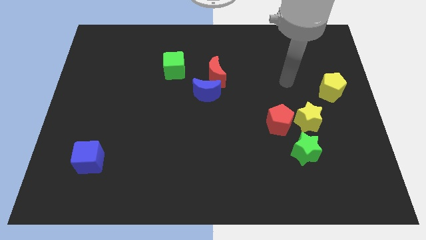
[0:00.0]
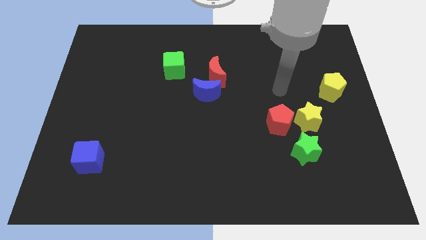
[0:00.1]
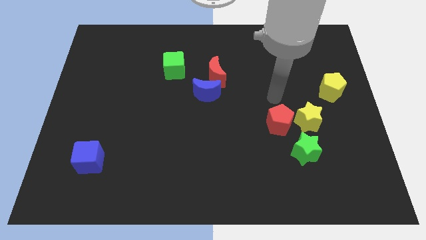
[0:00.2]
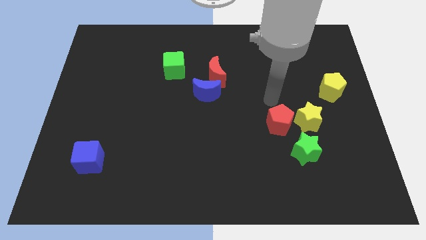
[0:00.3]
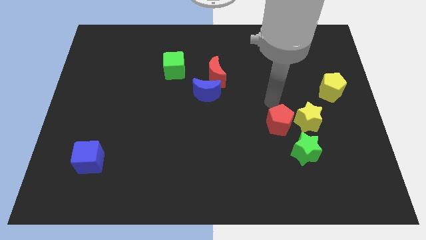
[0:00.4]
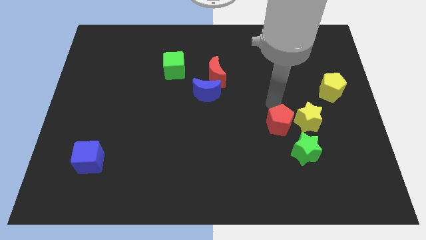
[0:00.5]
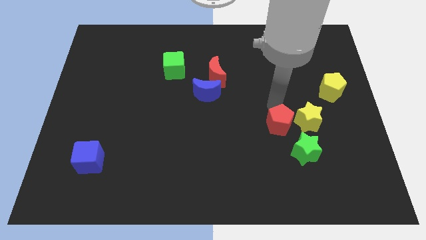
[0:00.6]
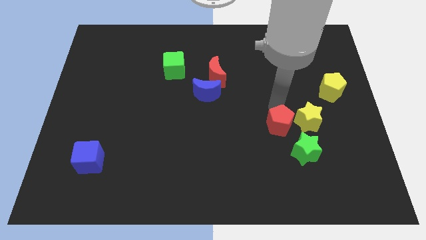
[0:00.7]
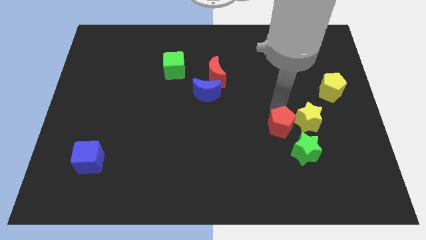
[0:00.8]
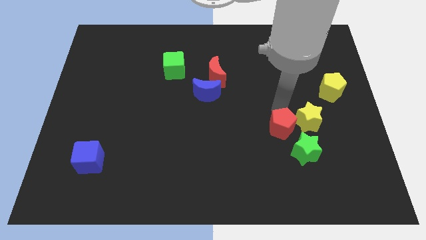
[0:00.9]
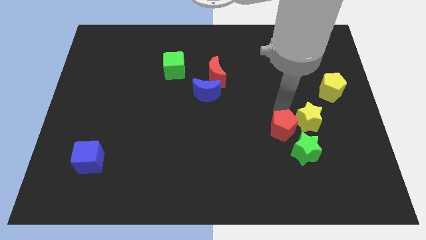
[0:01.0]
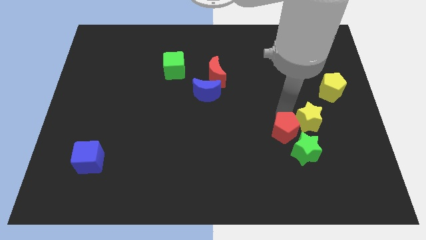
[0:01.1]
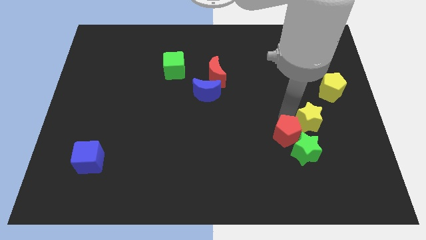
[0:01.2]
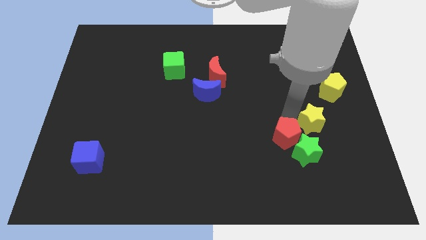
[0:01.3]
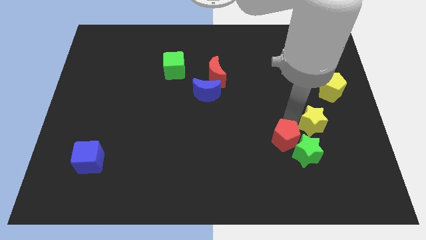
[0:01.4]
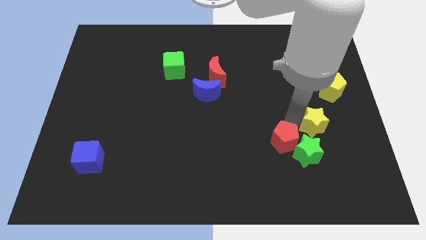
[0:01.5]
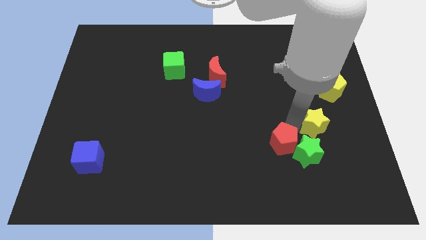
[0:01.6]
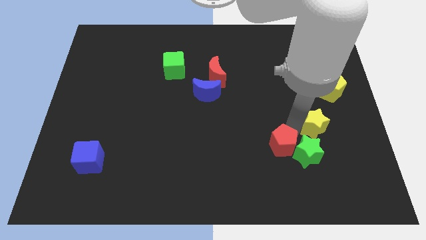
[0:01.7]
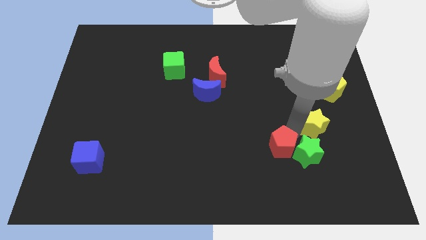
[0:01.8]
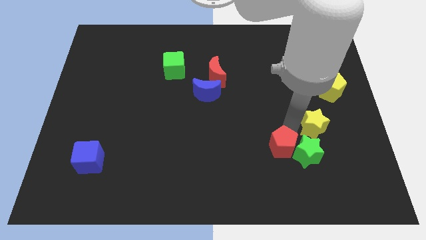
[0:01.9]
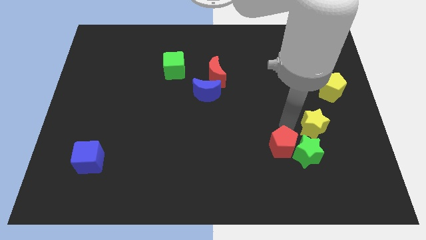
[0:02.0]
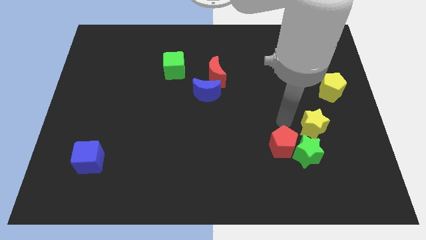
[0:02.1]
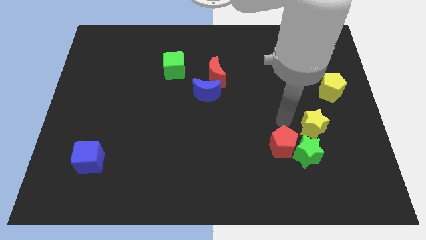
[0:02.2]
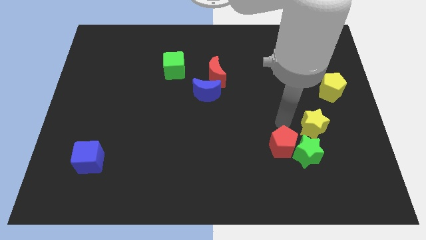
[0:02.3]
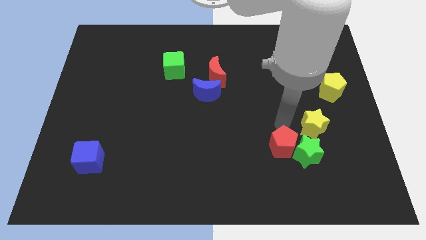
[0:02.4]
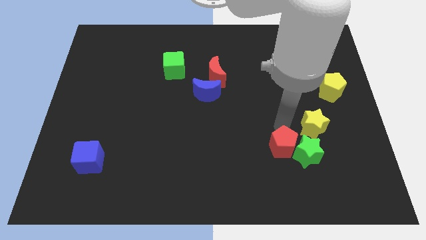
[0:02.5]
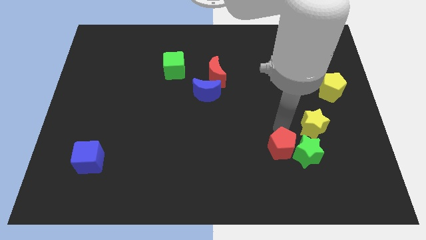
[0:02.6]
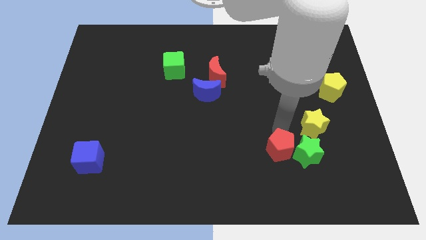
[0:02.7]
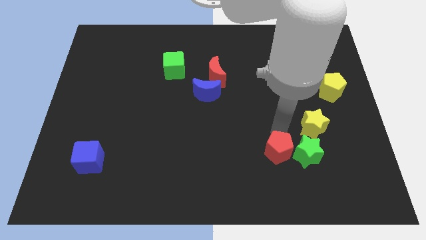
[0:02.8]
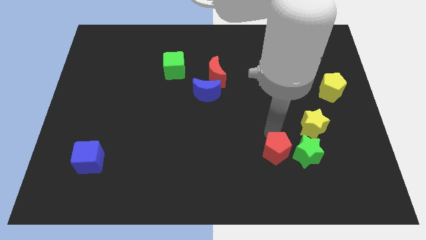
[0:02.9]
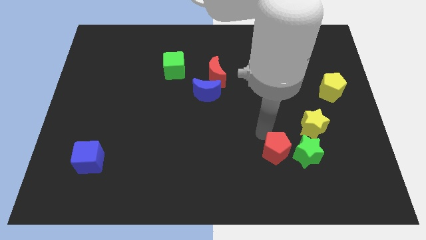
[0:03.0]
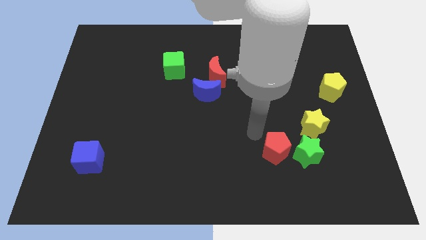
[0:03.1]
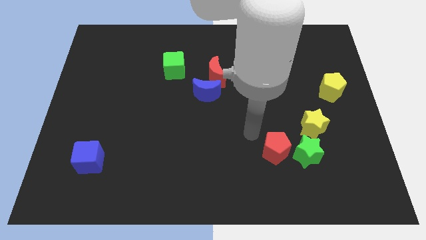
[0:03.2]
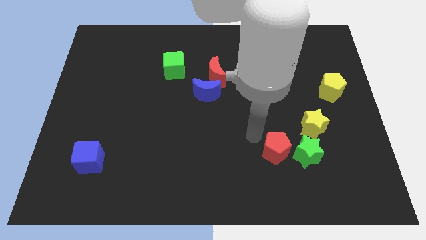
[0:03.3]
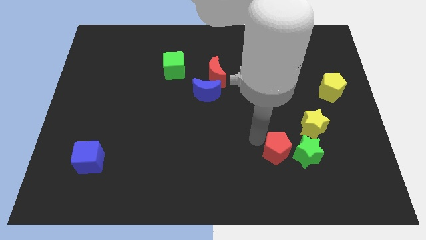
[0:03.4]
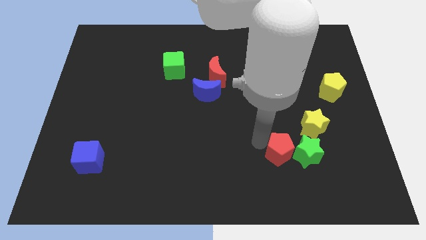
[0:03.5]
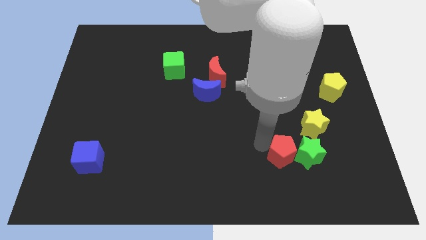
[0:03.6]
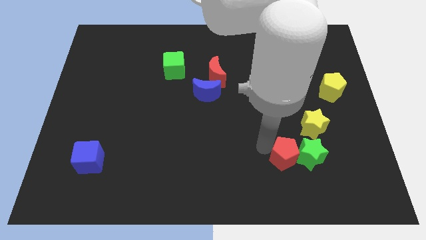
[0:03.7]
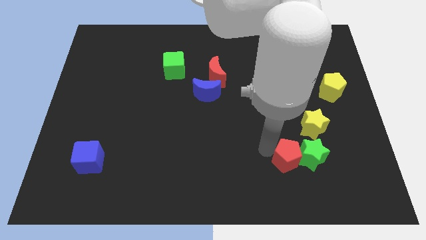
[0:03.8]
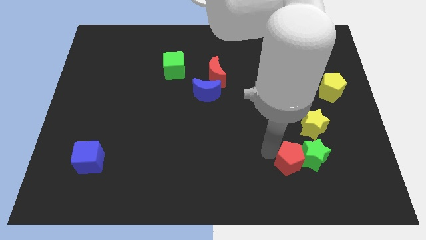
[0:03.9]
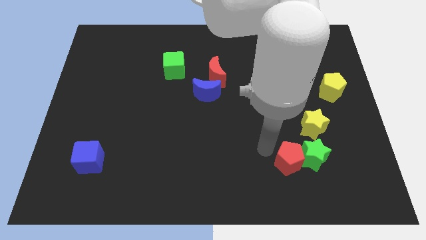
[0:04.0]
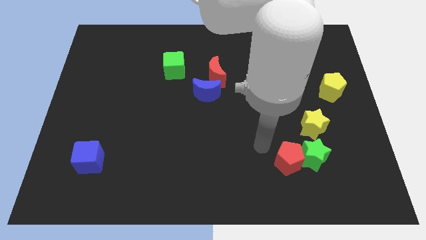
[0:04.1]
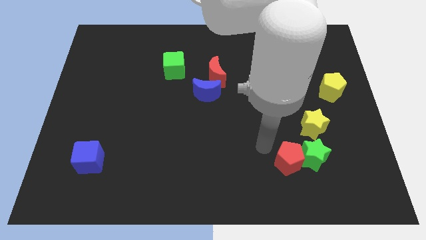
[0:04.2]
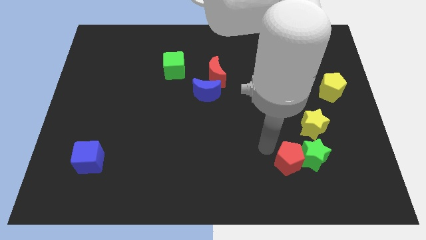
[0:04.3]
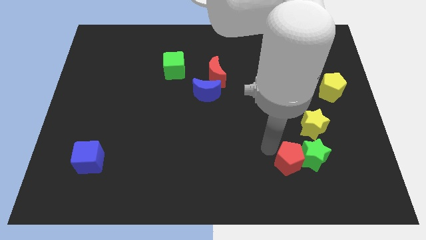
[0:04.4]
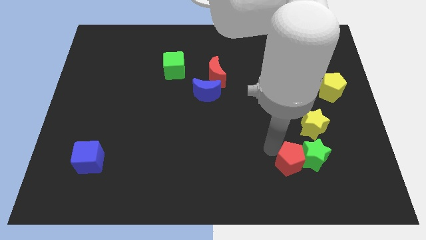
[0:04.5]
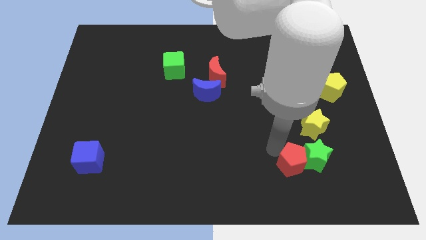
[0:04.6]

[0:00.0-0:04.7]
push the red pentagon slightly downwards and right

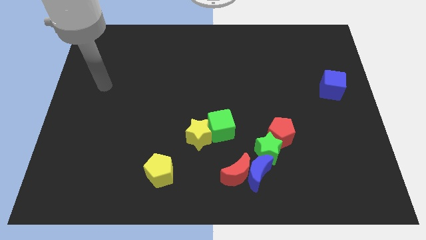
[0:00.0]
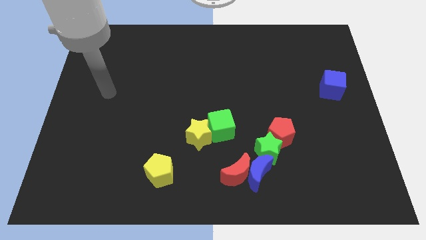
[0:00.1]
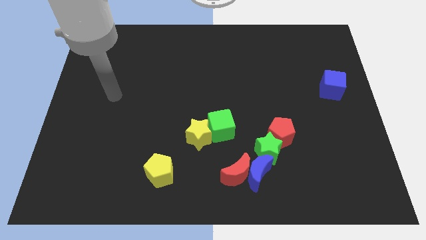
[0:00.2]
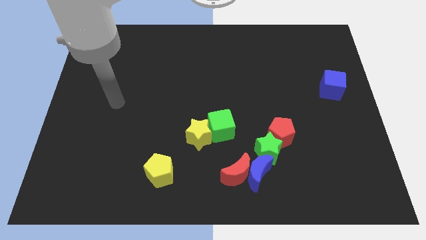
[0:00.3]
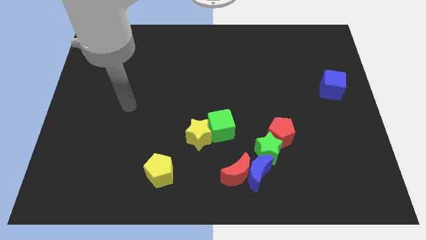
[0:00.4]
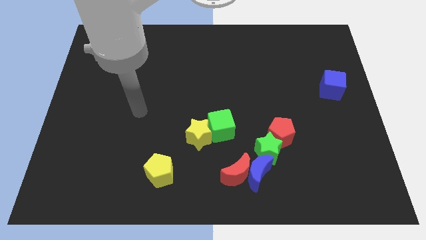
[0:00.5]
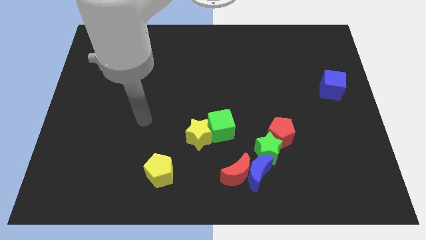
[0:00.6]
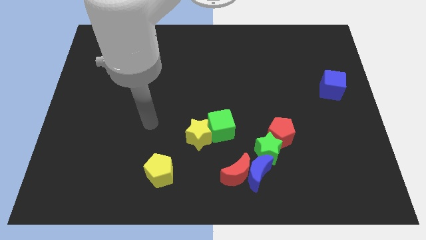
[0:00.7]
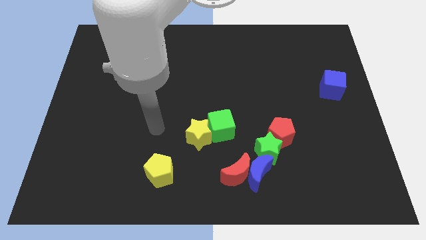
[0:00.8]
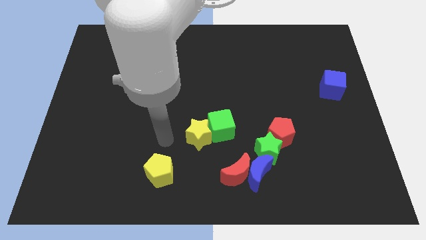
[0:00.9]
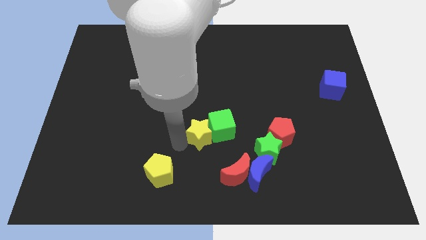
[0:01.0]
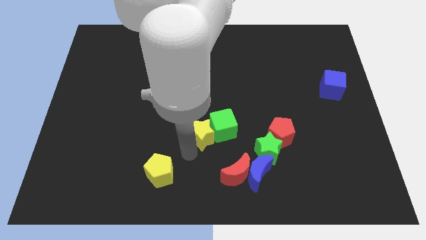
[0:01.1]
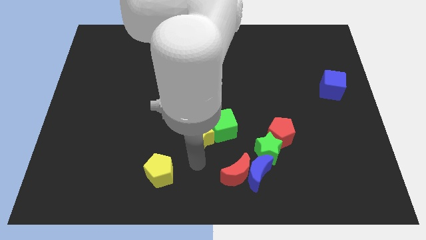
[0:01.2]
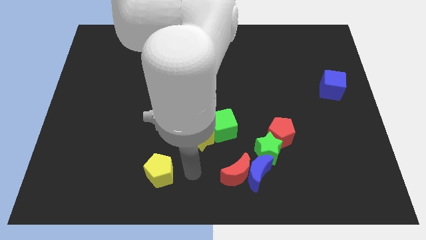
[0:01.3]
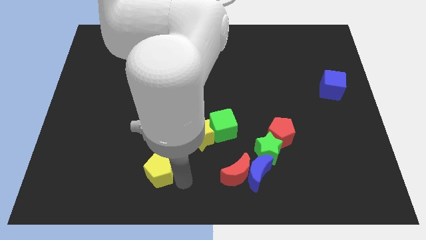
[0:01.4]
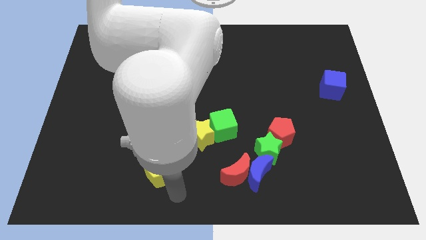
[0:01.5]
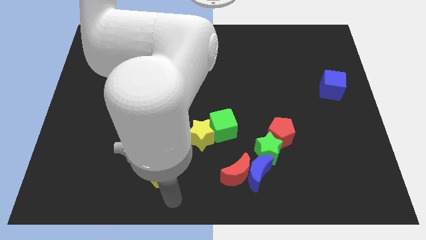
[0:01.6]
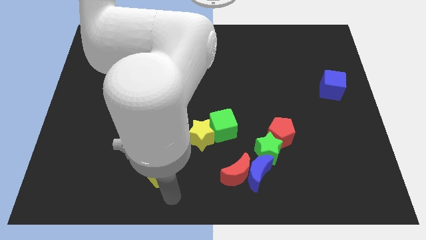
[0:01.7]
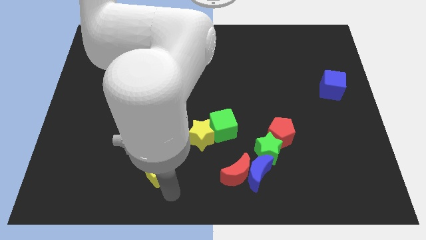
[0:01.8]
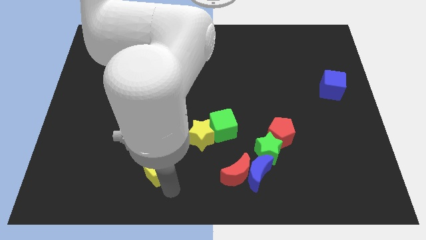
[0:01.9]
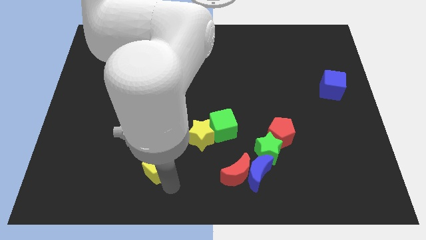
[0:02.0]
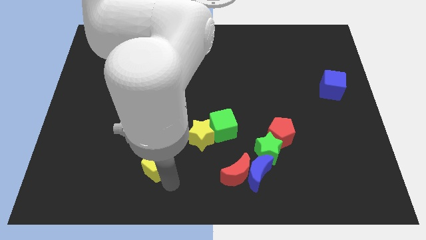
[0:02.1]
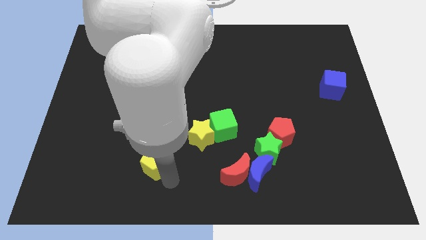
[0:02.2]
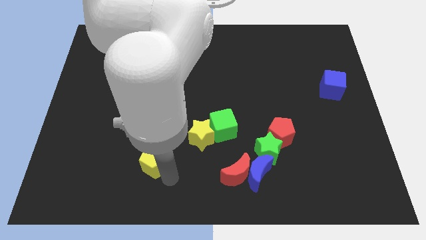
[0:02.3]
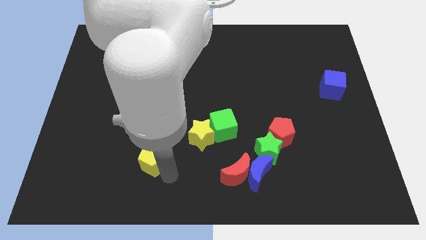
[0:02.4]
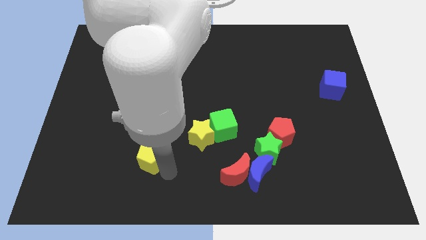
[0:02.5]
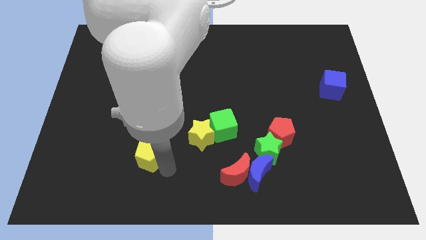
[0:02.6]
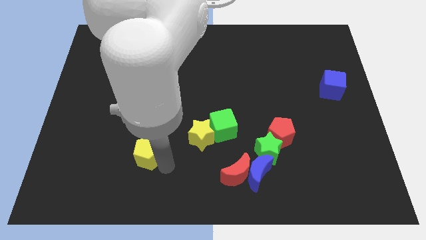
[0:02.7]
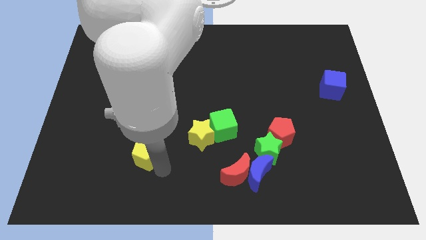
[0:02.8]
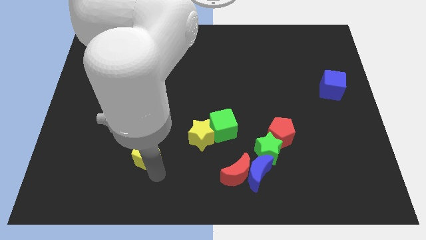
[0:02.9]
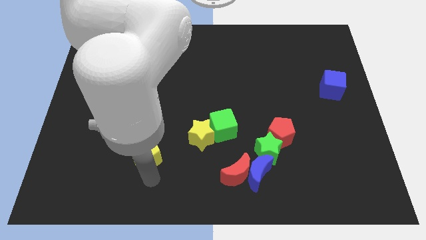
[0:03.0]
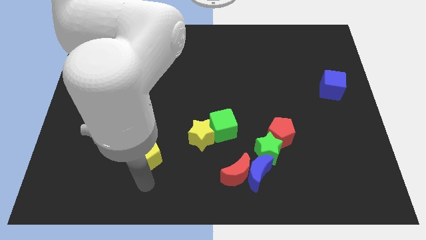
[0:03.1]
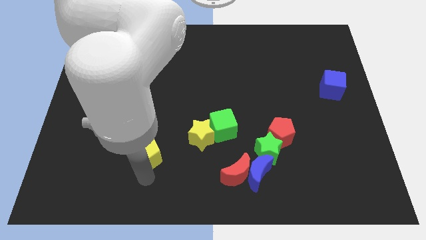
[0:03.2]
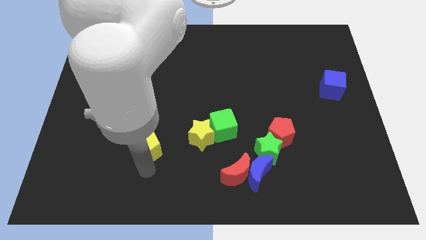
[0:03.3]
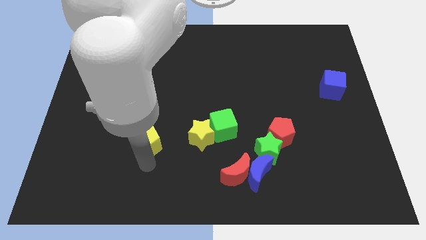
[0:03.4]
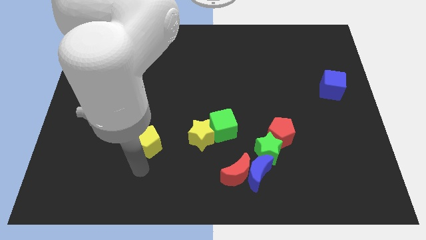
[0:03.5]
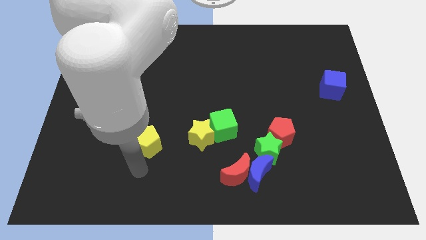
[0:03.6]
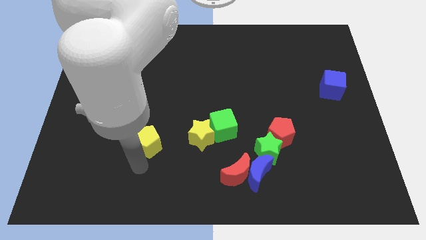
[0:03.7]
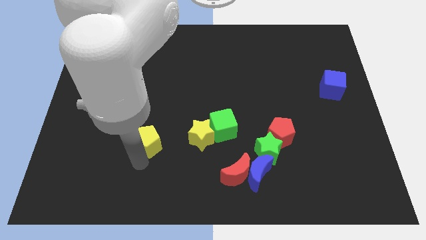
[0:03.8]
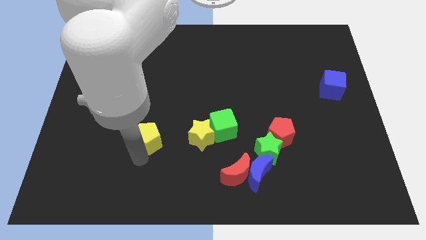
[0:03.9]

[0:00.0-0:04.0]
move the yellow pentagon slightly upwards
